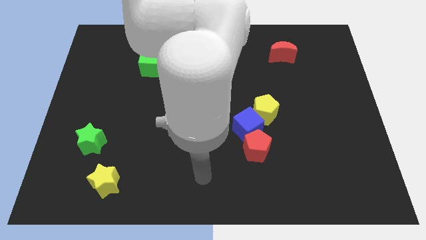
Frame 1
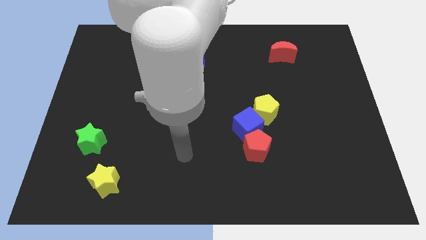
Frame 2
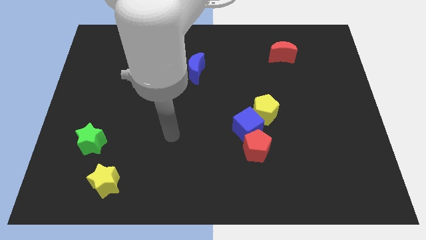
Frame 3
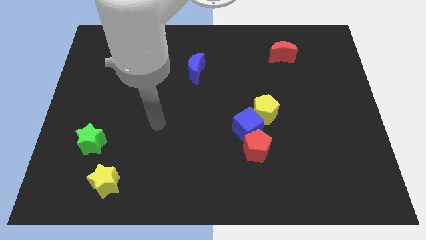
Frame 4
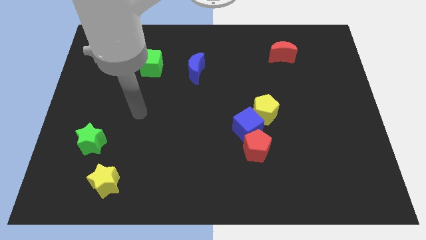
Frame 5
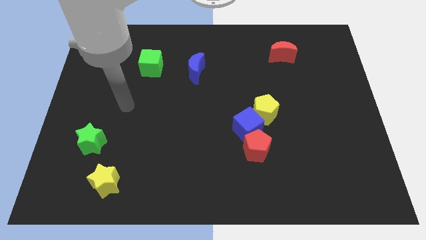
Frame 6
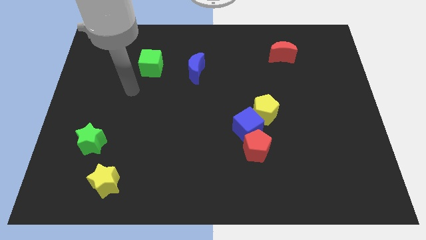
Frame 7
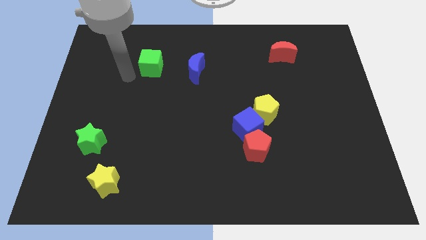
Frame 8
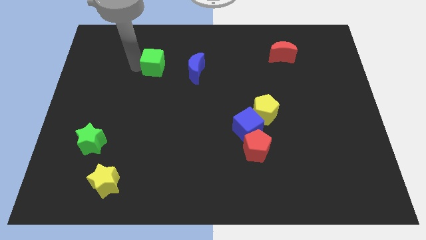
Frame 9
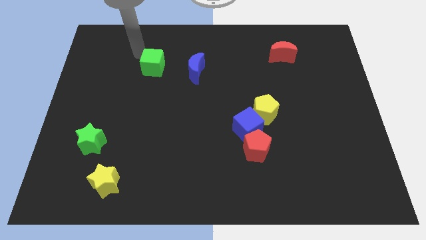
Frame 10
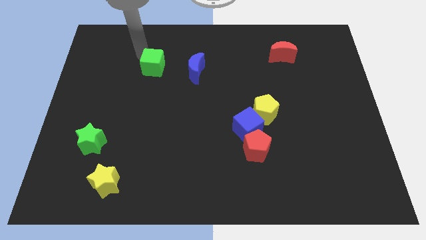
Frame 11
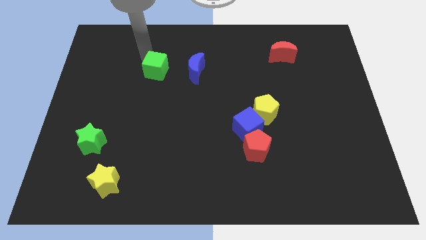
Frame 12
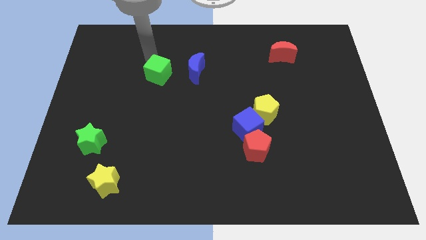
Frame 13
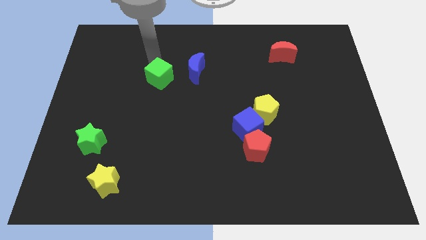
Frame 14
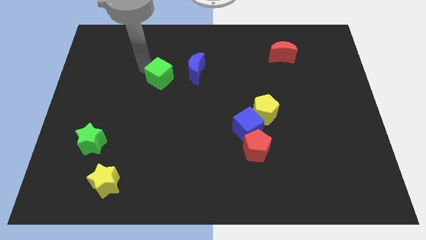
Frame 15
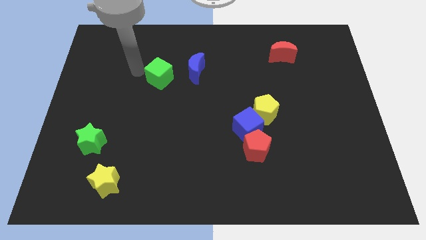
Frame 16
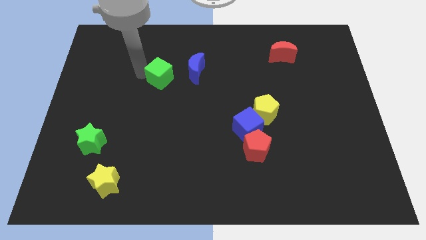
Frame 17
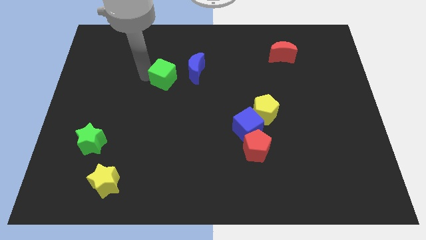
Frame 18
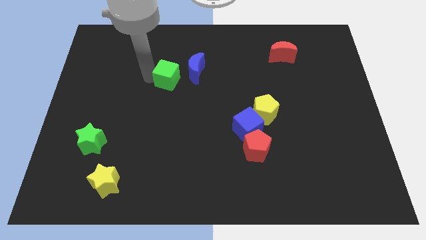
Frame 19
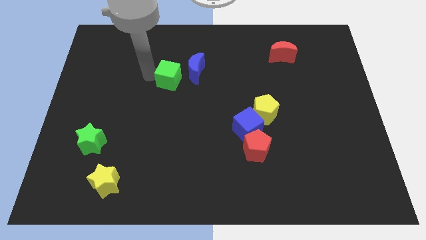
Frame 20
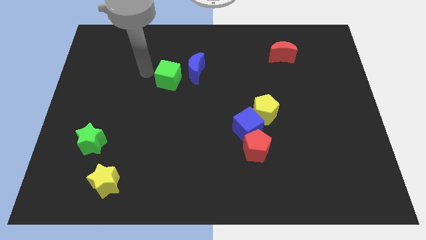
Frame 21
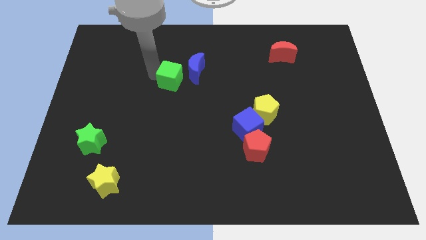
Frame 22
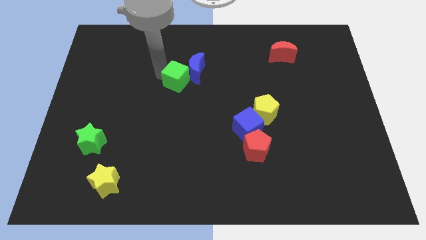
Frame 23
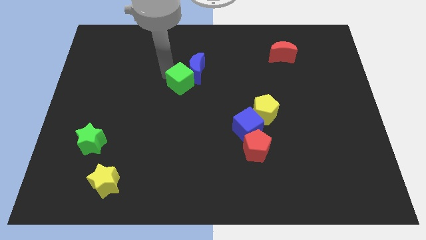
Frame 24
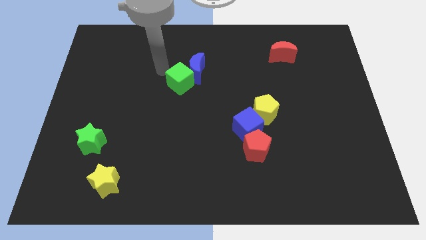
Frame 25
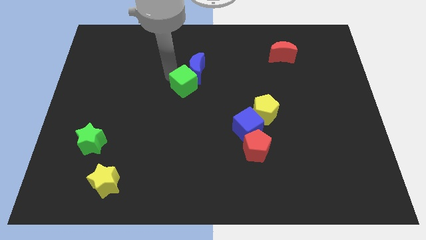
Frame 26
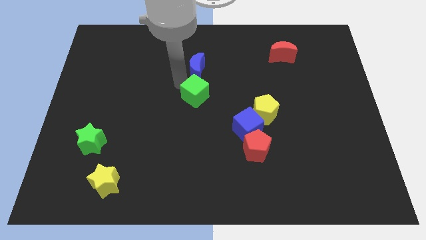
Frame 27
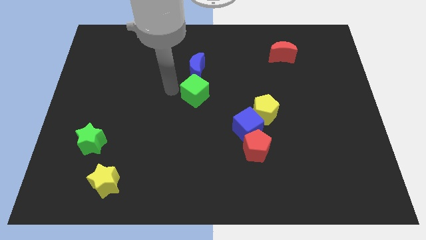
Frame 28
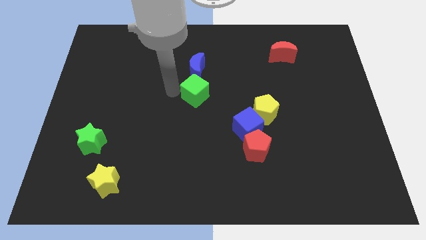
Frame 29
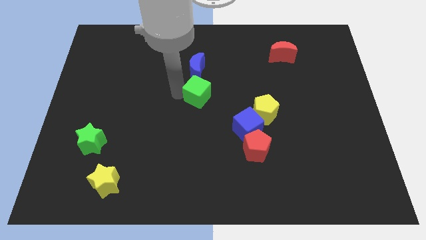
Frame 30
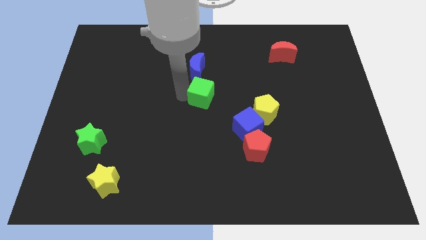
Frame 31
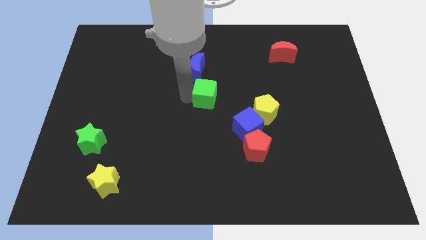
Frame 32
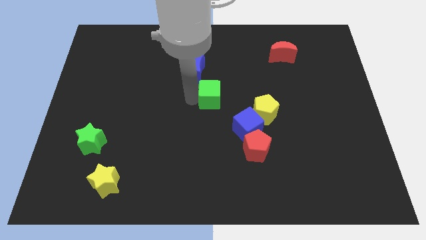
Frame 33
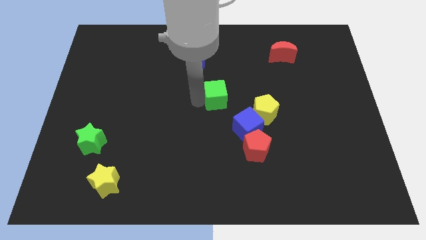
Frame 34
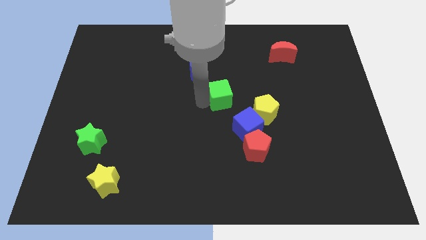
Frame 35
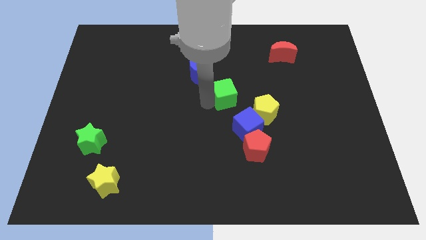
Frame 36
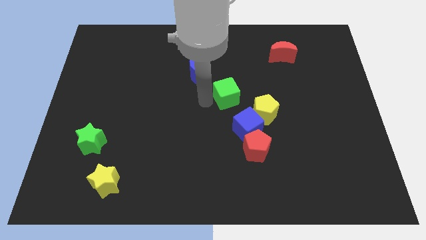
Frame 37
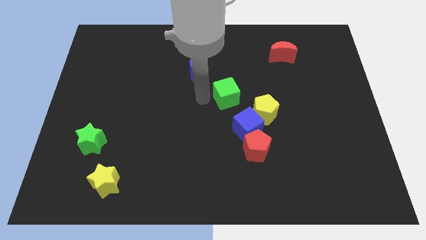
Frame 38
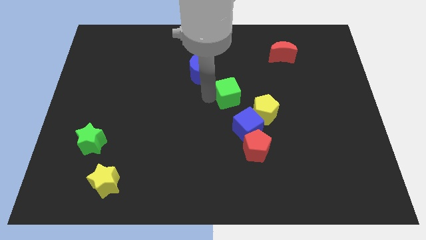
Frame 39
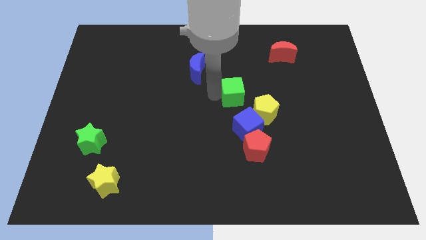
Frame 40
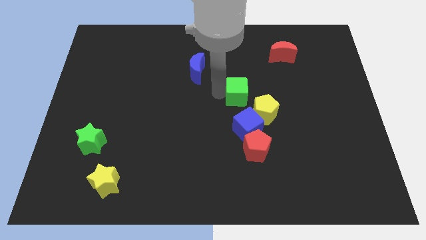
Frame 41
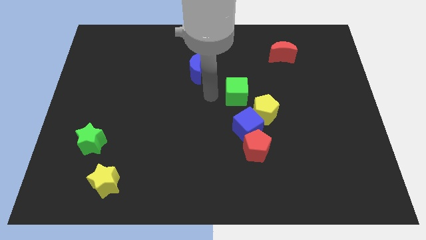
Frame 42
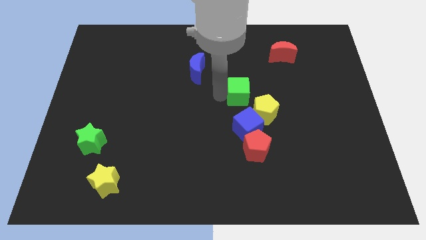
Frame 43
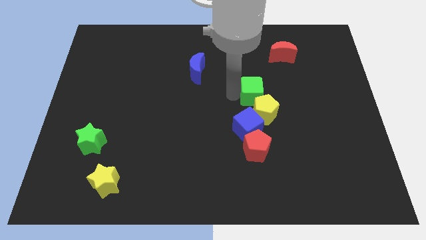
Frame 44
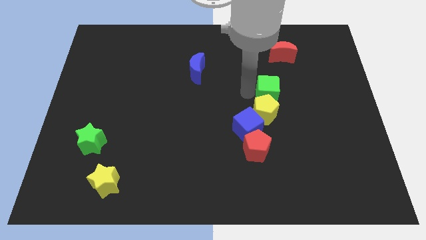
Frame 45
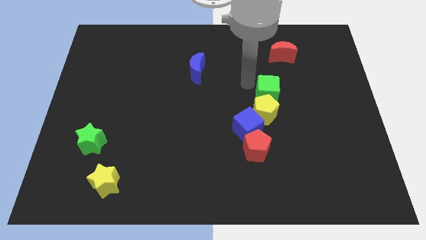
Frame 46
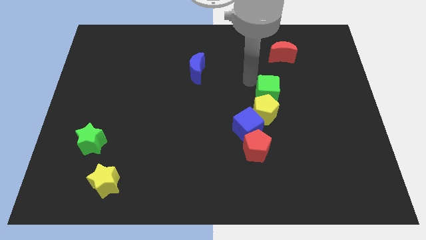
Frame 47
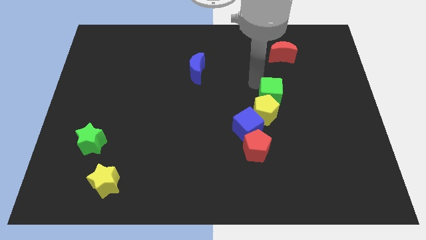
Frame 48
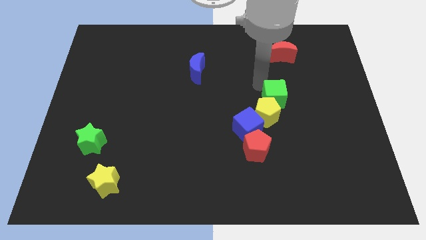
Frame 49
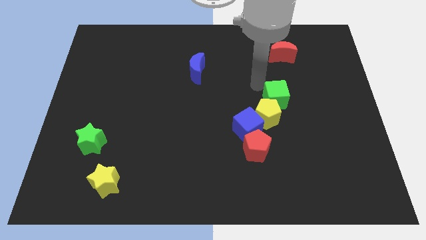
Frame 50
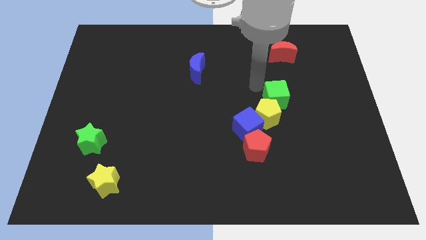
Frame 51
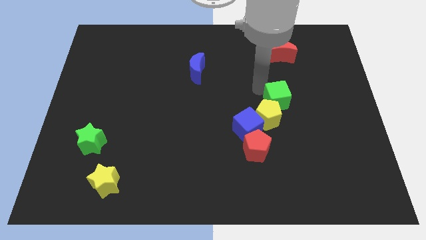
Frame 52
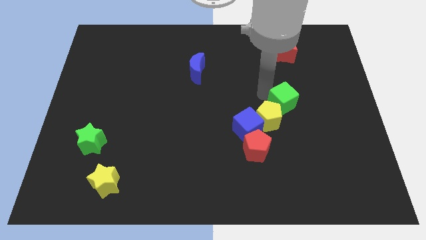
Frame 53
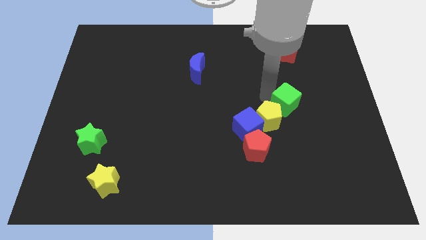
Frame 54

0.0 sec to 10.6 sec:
slide the green cube just right of the yellow pentagon

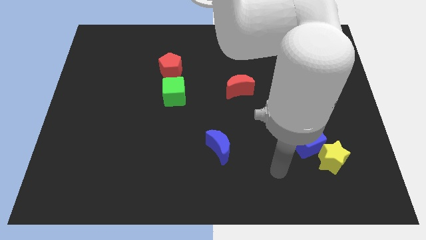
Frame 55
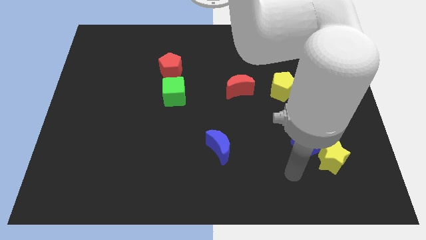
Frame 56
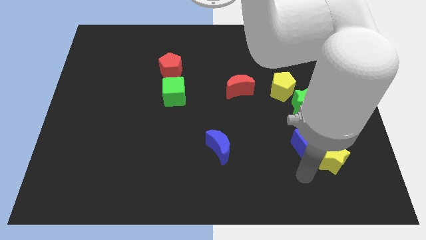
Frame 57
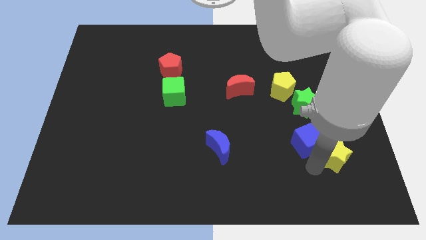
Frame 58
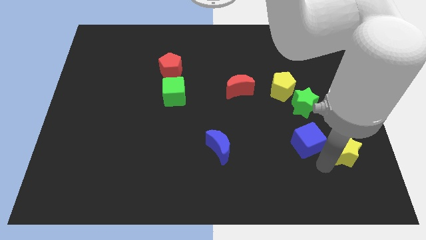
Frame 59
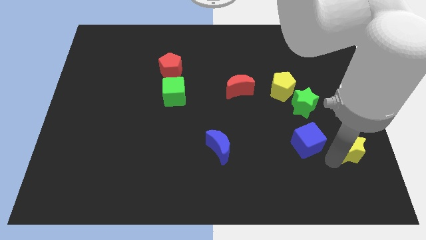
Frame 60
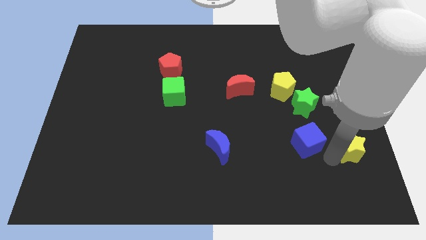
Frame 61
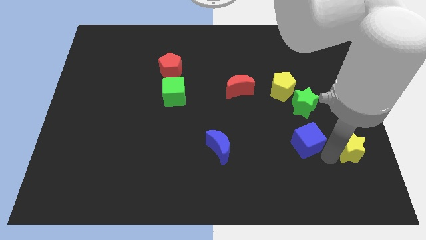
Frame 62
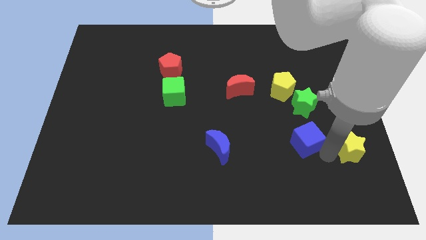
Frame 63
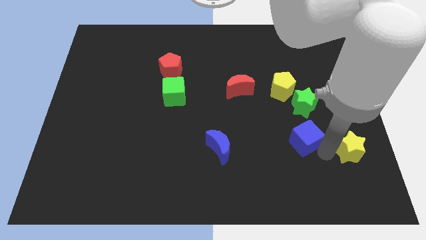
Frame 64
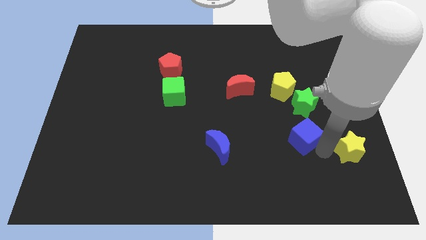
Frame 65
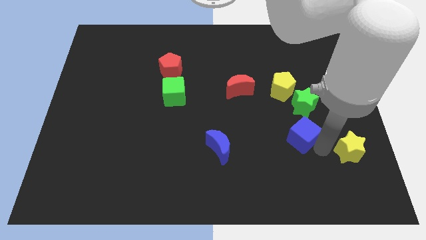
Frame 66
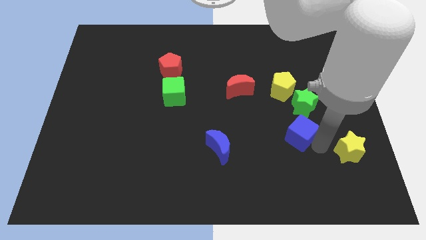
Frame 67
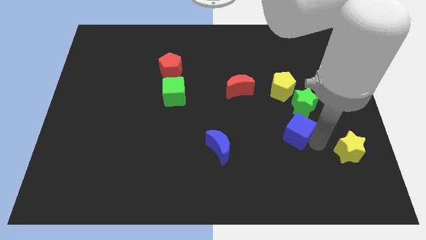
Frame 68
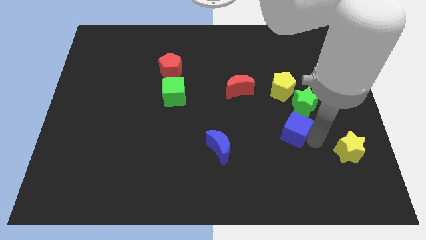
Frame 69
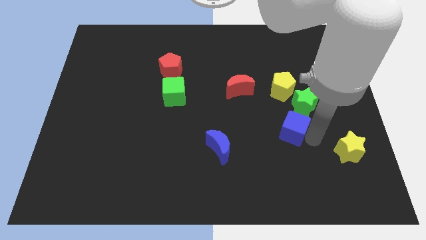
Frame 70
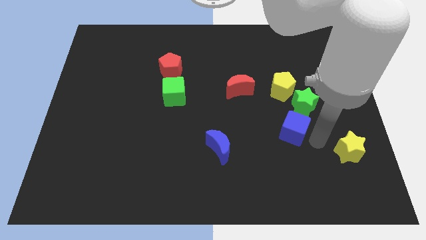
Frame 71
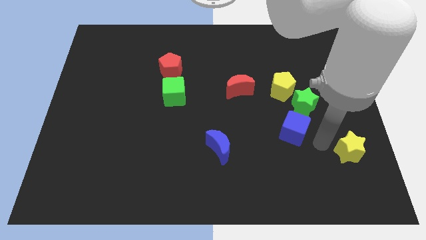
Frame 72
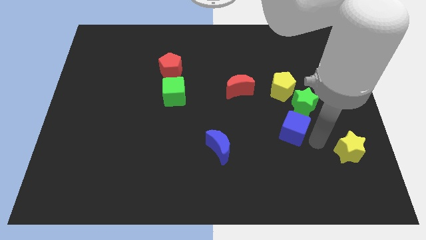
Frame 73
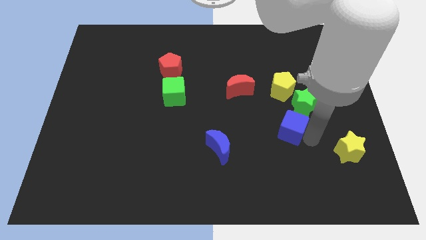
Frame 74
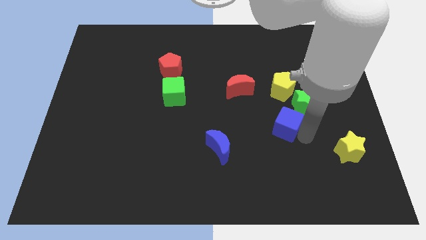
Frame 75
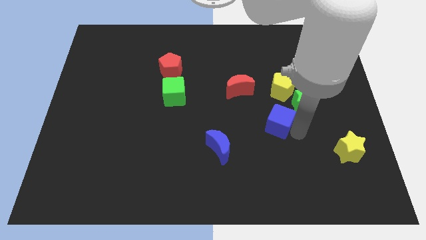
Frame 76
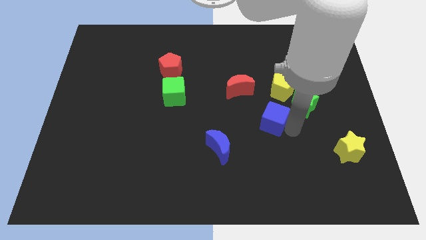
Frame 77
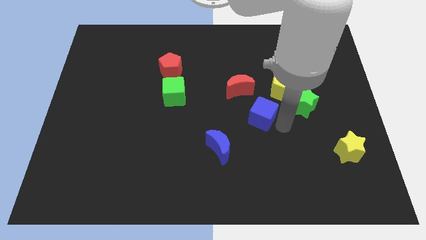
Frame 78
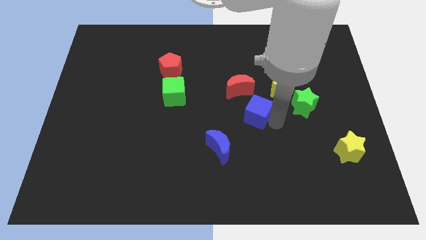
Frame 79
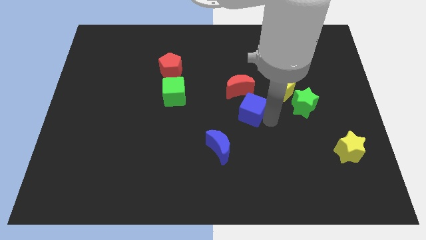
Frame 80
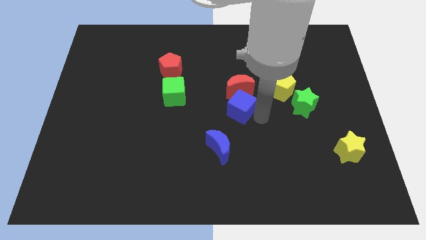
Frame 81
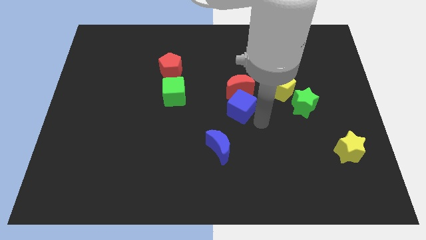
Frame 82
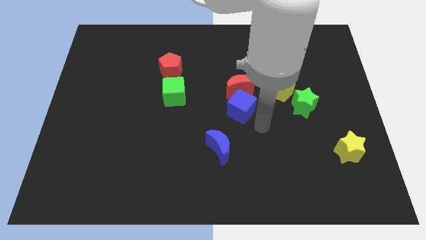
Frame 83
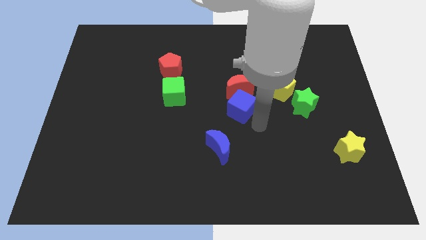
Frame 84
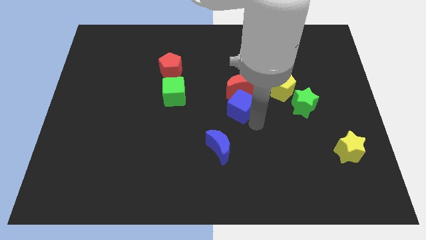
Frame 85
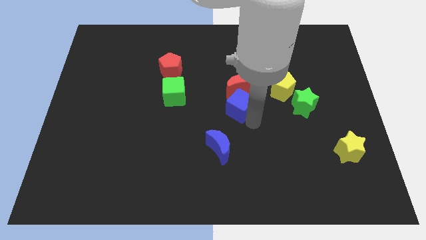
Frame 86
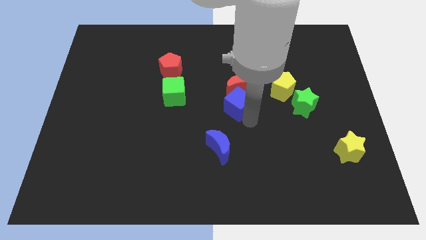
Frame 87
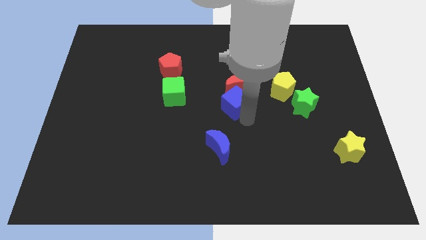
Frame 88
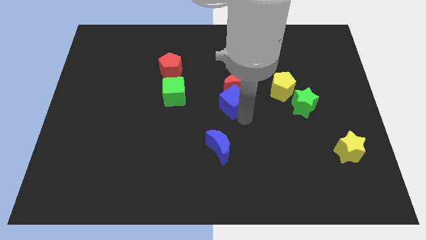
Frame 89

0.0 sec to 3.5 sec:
move the blue cube left of the yellow pentagon
